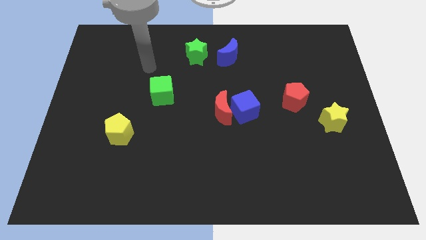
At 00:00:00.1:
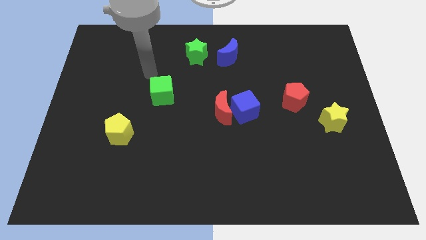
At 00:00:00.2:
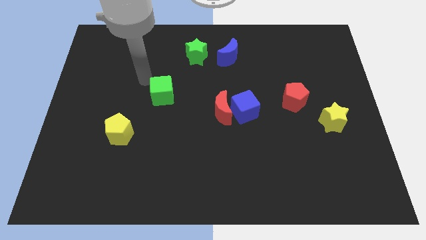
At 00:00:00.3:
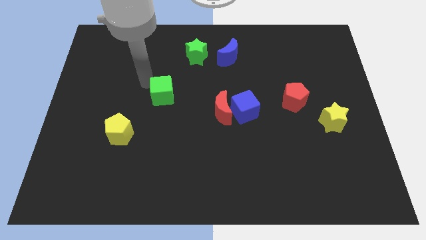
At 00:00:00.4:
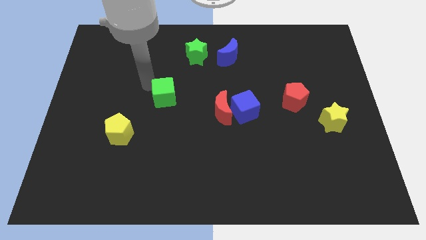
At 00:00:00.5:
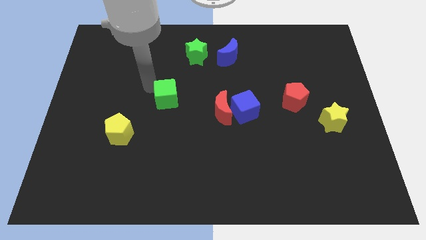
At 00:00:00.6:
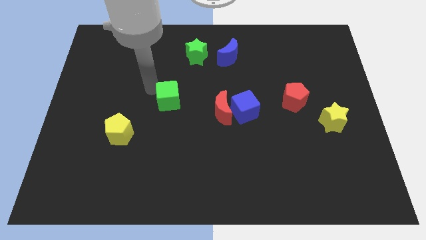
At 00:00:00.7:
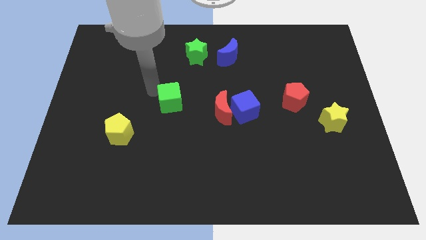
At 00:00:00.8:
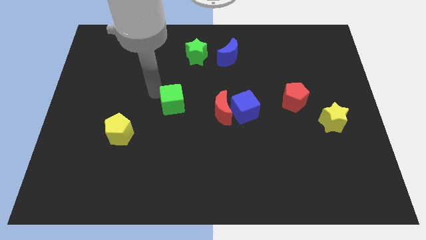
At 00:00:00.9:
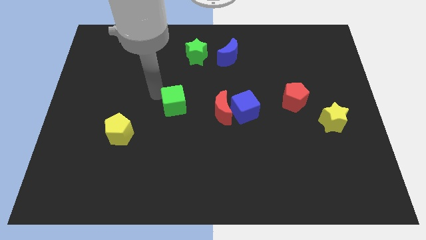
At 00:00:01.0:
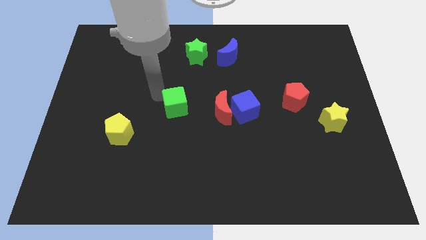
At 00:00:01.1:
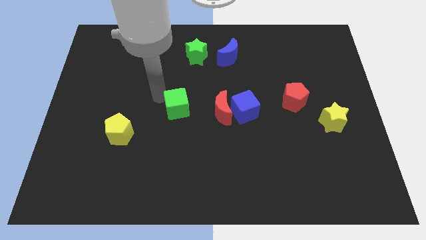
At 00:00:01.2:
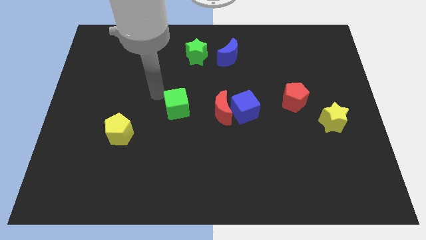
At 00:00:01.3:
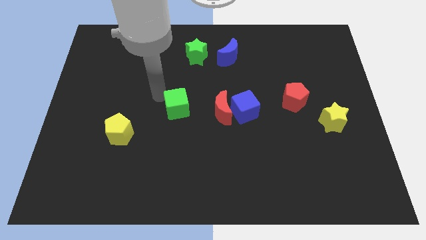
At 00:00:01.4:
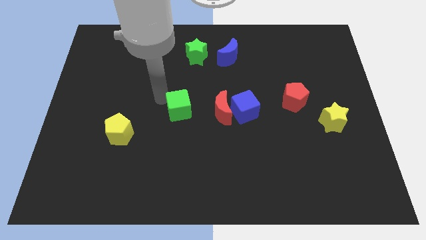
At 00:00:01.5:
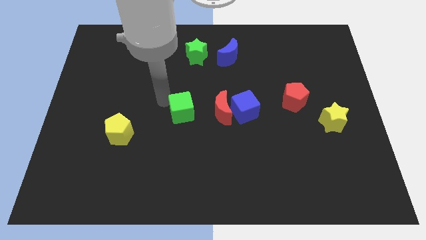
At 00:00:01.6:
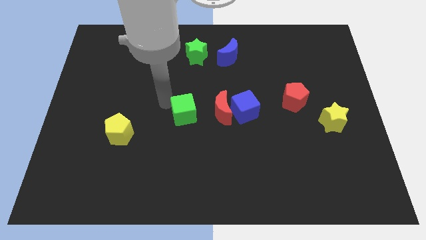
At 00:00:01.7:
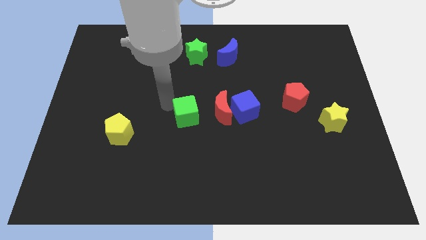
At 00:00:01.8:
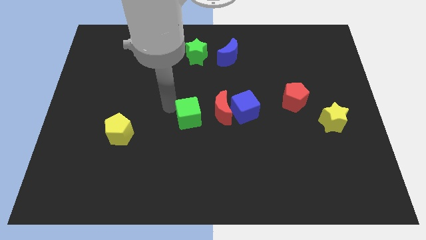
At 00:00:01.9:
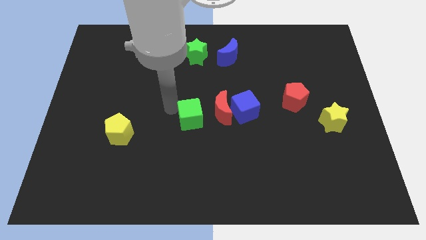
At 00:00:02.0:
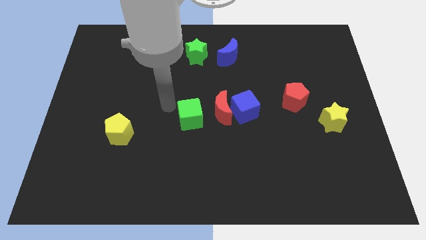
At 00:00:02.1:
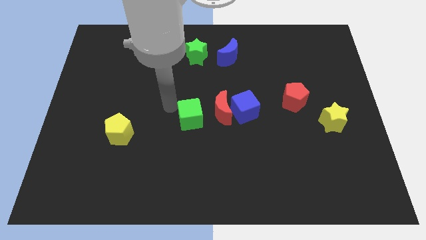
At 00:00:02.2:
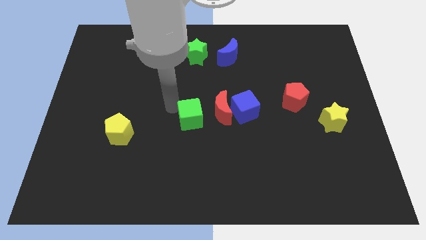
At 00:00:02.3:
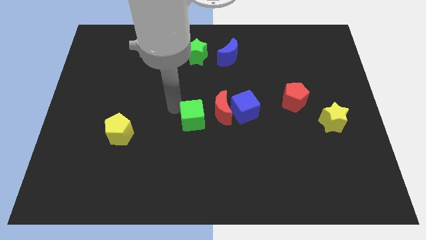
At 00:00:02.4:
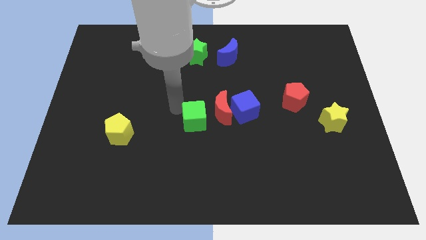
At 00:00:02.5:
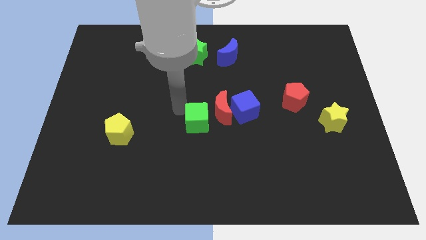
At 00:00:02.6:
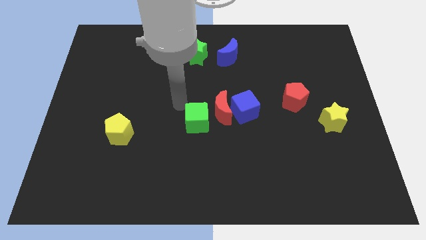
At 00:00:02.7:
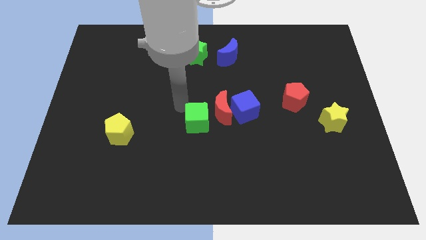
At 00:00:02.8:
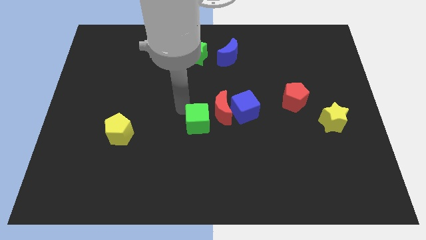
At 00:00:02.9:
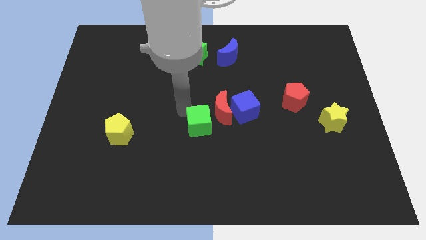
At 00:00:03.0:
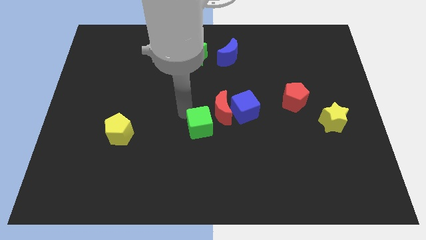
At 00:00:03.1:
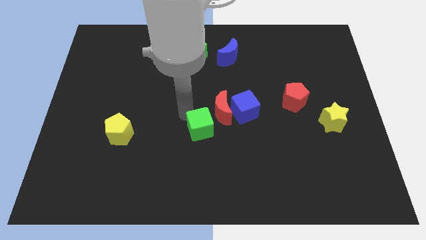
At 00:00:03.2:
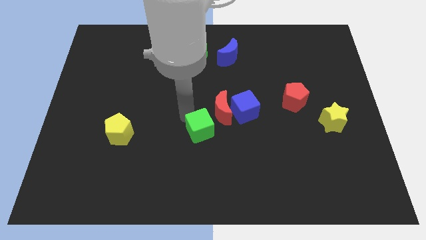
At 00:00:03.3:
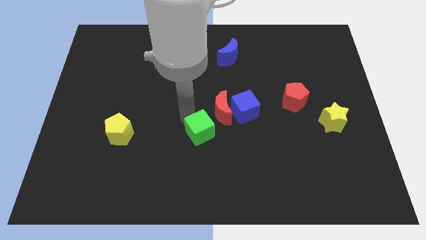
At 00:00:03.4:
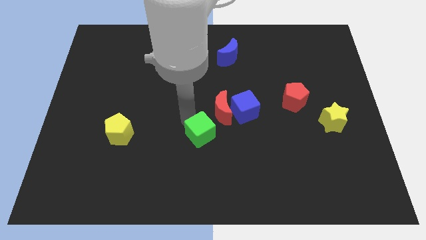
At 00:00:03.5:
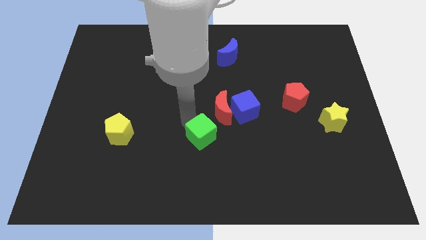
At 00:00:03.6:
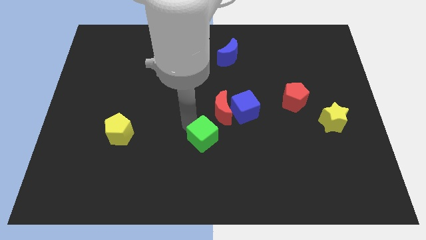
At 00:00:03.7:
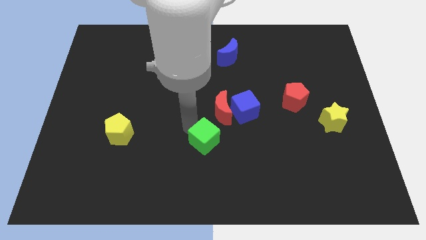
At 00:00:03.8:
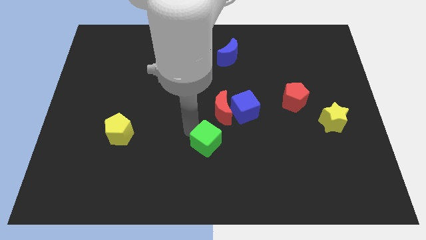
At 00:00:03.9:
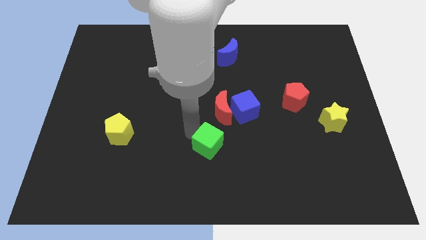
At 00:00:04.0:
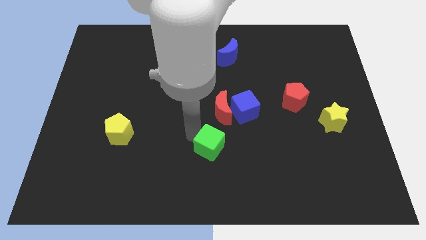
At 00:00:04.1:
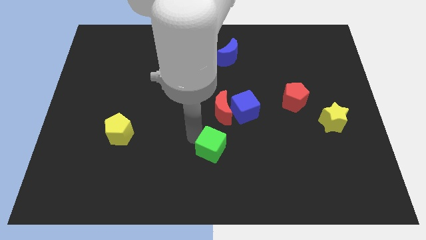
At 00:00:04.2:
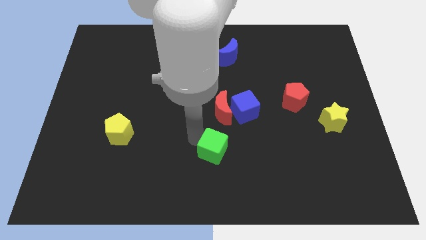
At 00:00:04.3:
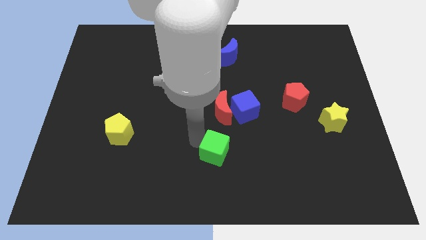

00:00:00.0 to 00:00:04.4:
slide the green cube diagonally downwards and to the right

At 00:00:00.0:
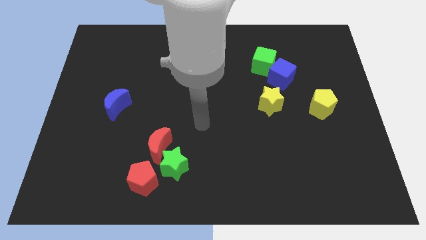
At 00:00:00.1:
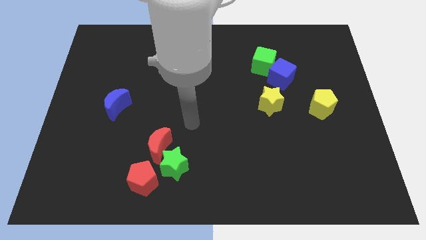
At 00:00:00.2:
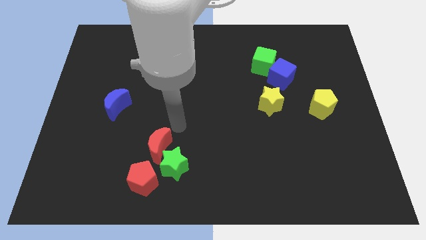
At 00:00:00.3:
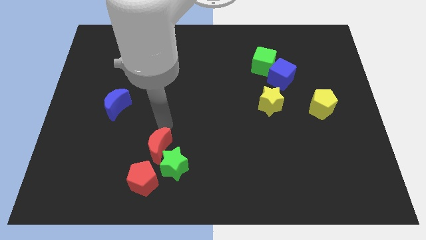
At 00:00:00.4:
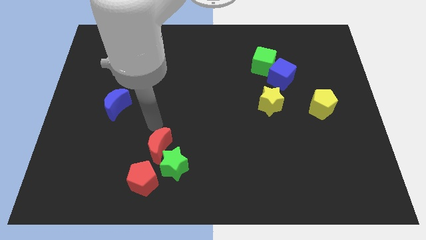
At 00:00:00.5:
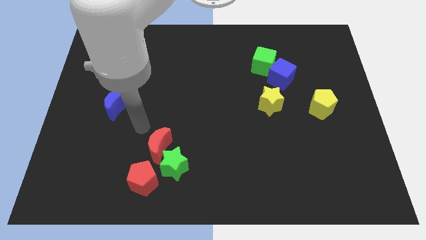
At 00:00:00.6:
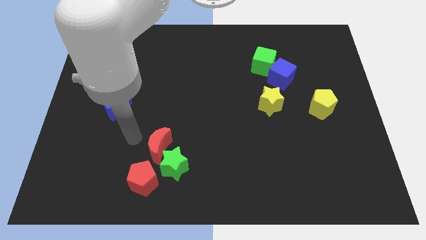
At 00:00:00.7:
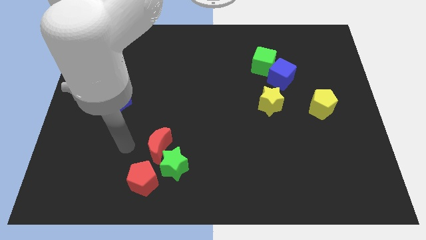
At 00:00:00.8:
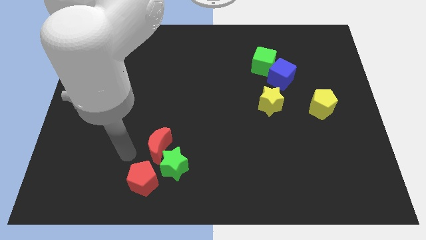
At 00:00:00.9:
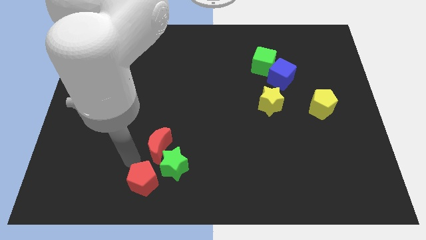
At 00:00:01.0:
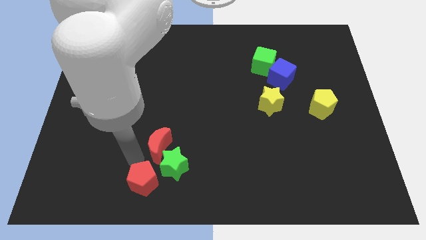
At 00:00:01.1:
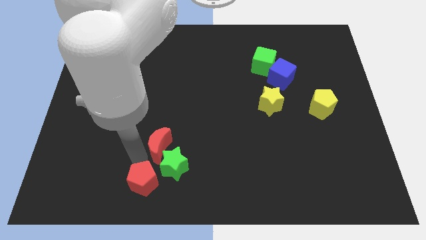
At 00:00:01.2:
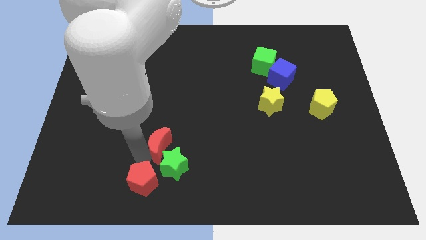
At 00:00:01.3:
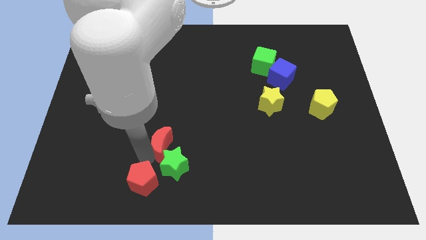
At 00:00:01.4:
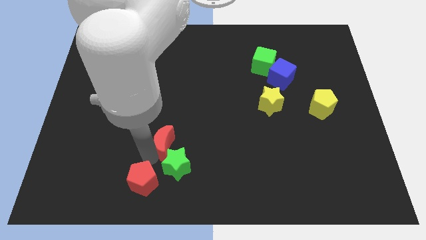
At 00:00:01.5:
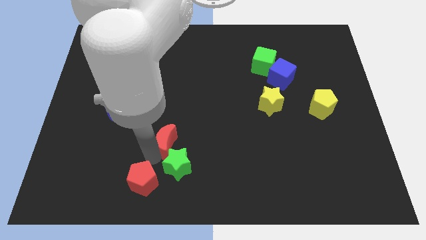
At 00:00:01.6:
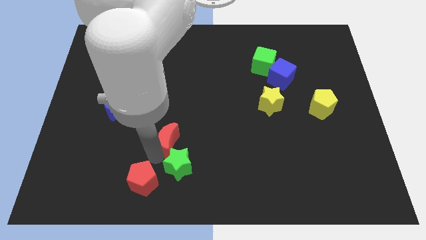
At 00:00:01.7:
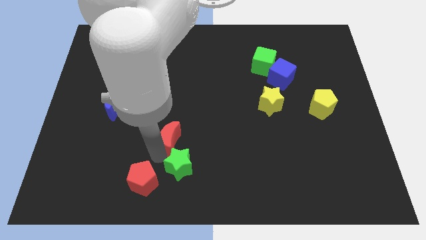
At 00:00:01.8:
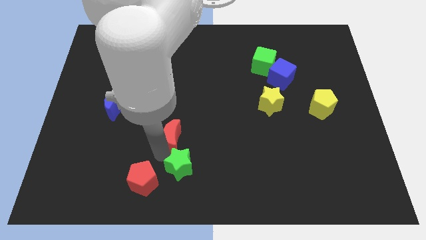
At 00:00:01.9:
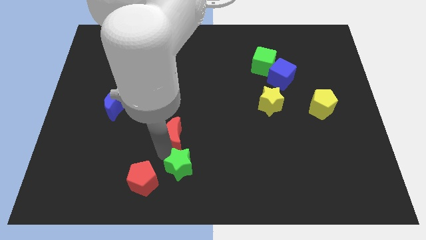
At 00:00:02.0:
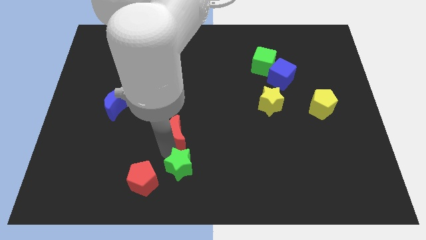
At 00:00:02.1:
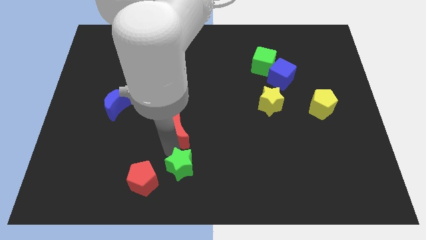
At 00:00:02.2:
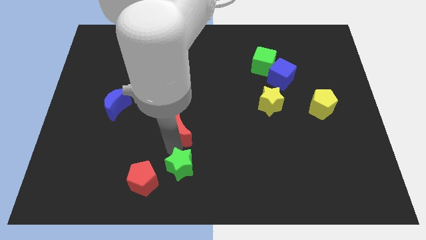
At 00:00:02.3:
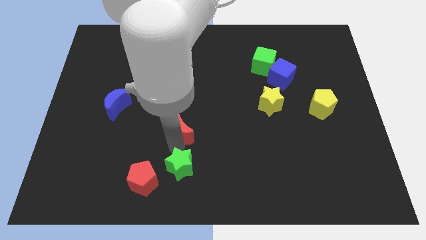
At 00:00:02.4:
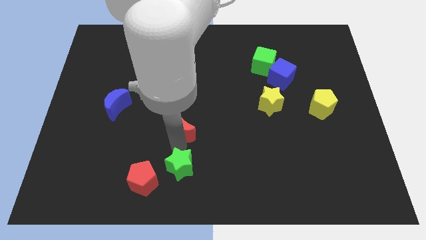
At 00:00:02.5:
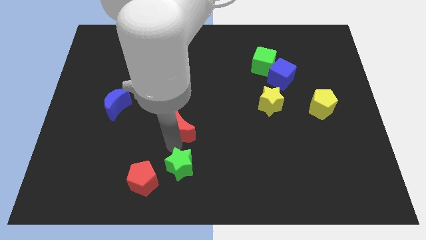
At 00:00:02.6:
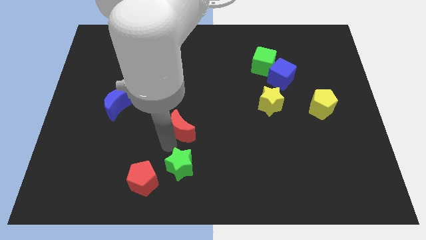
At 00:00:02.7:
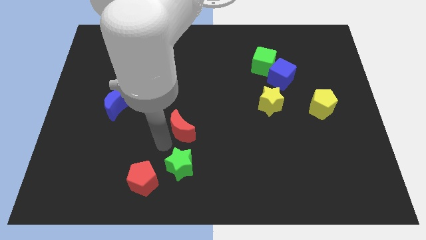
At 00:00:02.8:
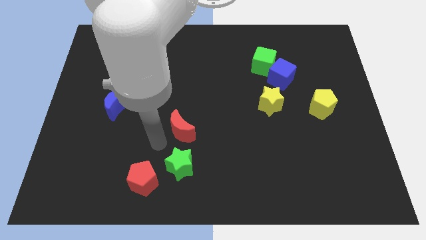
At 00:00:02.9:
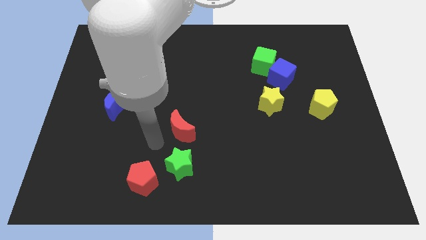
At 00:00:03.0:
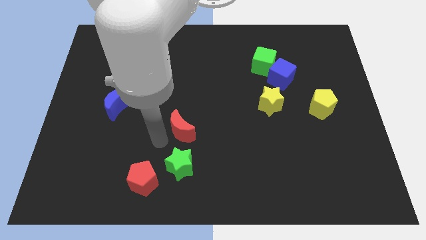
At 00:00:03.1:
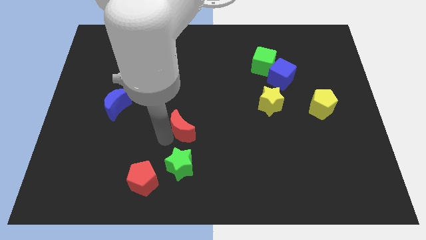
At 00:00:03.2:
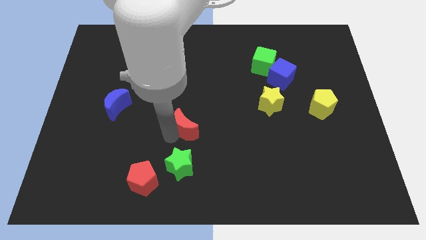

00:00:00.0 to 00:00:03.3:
slightly push the red moon upwards and to the right diagonally
